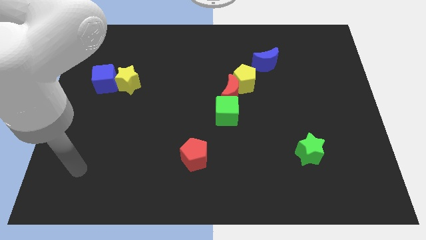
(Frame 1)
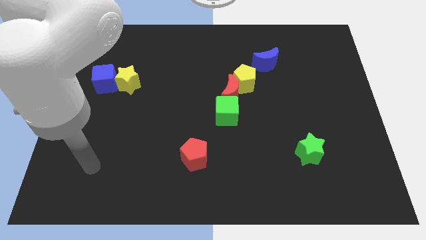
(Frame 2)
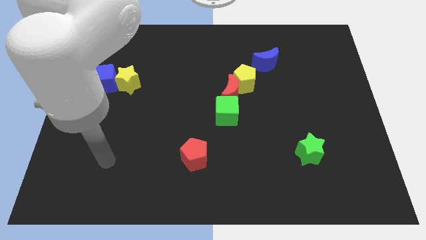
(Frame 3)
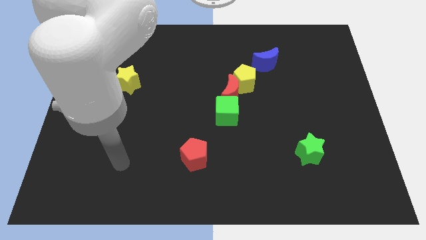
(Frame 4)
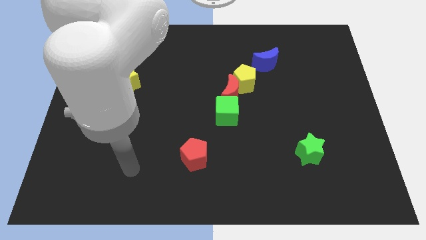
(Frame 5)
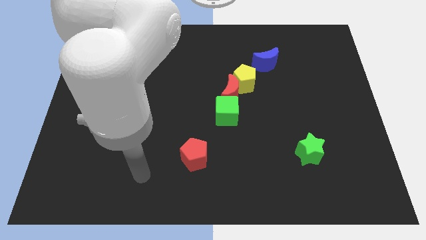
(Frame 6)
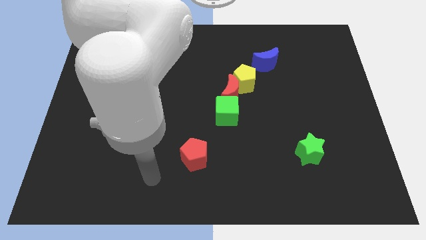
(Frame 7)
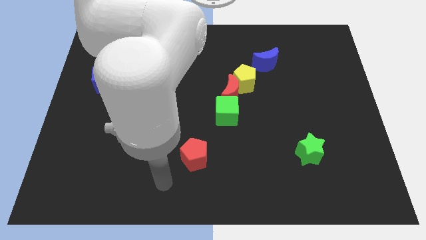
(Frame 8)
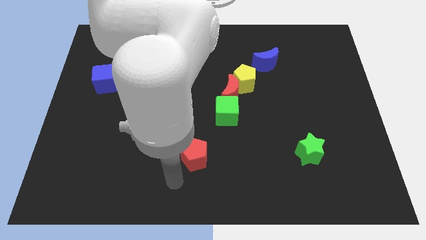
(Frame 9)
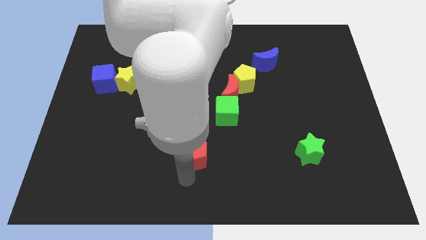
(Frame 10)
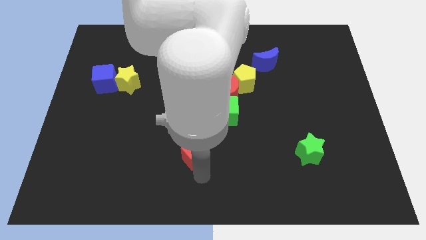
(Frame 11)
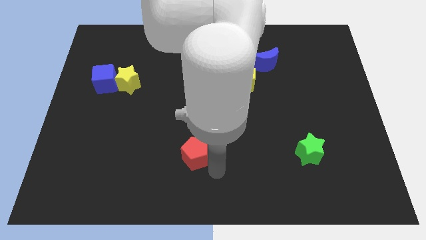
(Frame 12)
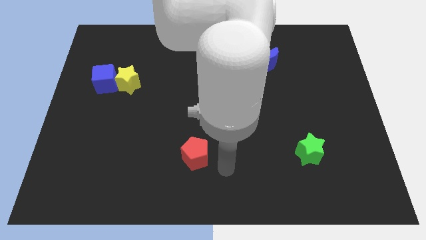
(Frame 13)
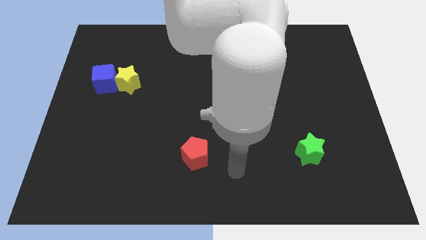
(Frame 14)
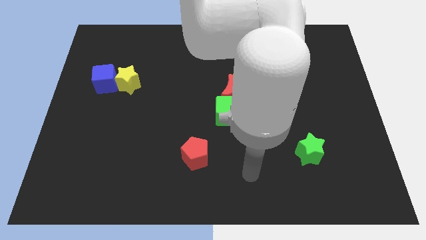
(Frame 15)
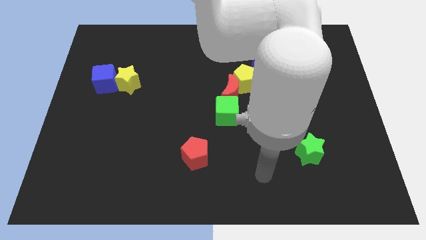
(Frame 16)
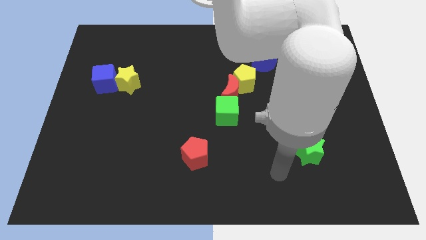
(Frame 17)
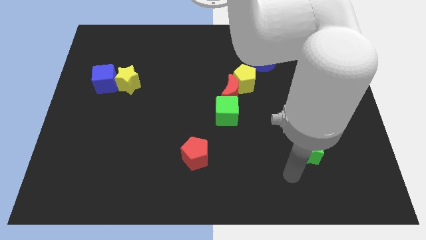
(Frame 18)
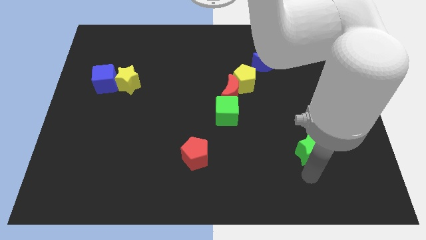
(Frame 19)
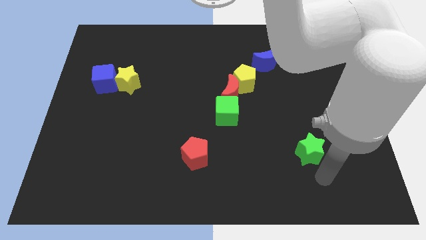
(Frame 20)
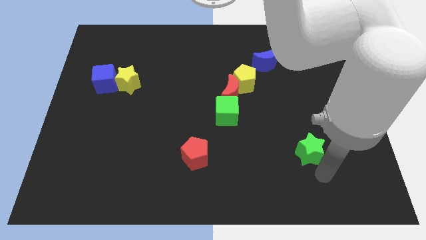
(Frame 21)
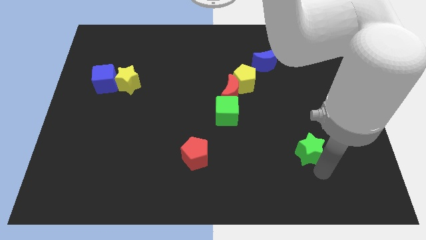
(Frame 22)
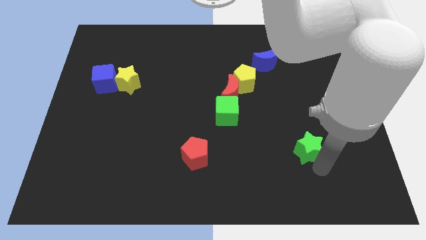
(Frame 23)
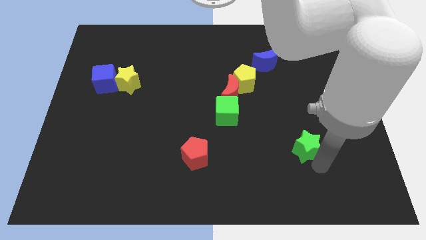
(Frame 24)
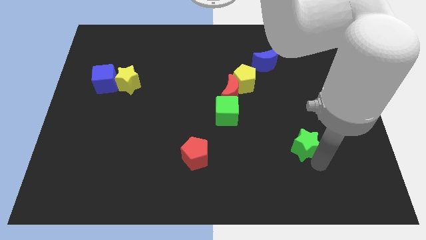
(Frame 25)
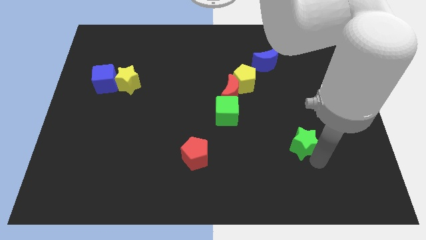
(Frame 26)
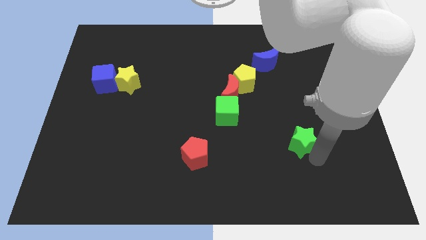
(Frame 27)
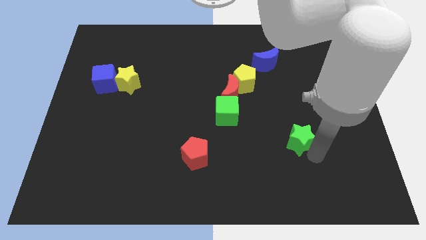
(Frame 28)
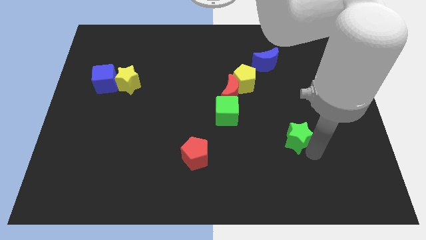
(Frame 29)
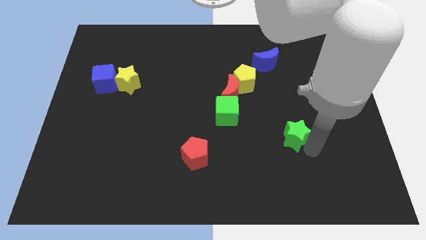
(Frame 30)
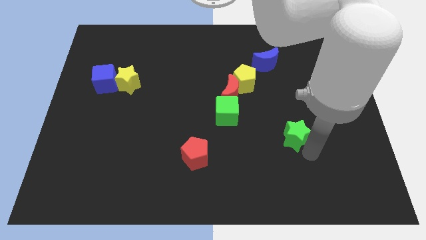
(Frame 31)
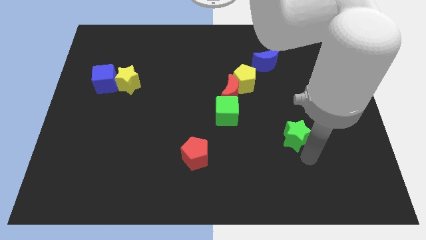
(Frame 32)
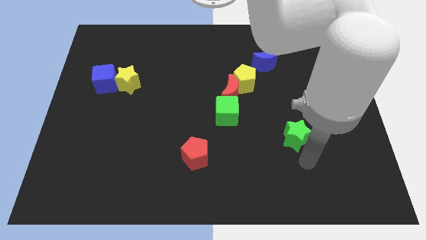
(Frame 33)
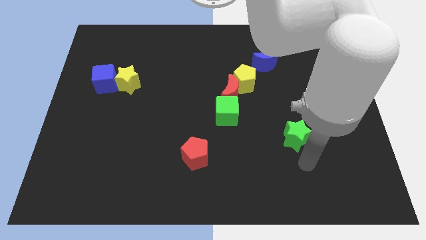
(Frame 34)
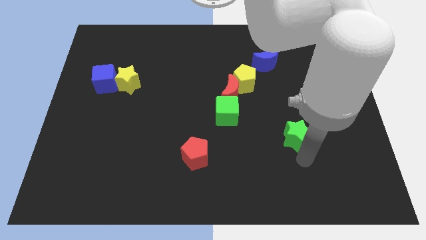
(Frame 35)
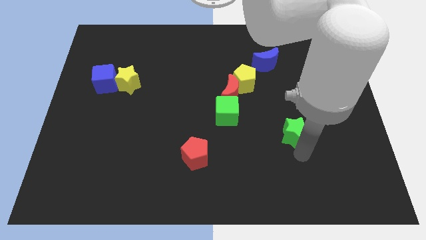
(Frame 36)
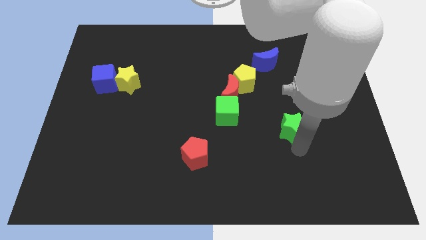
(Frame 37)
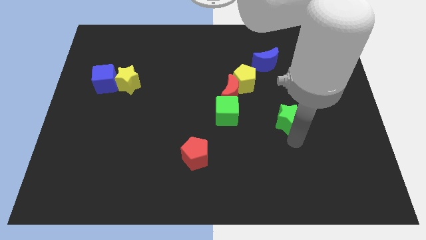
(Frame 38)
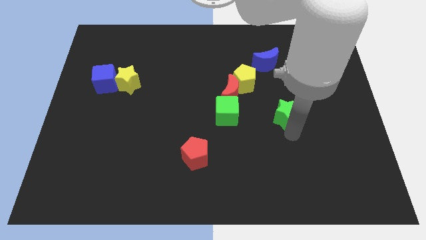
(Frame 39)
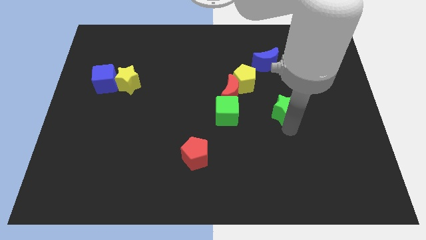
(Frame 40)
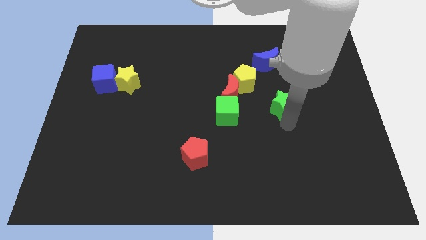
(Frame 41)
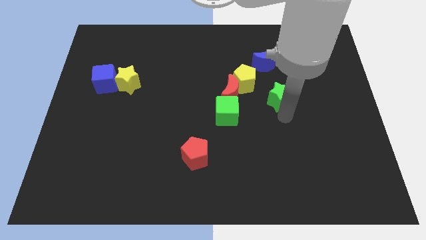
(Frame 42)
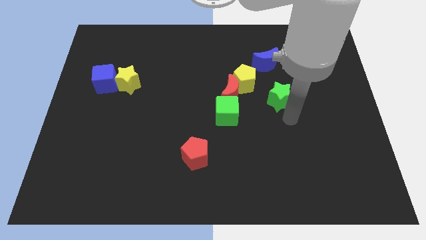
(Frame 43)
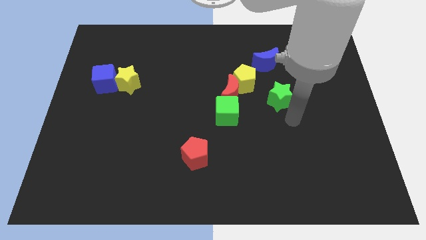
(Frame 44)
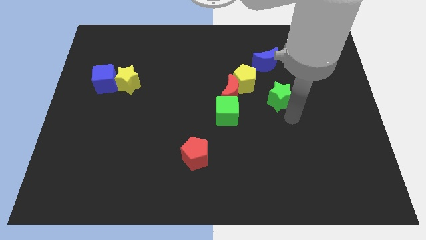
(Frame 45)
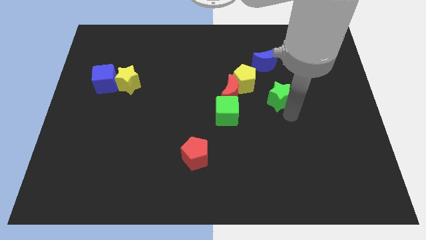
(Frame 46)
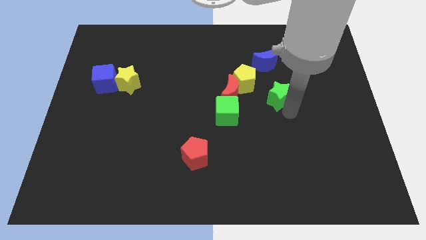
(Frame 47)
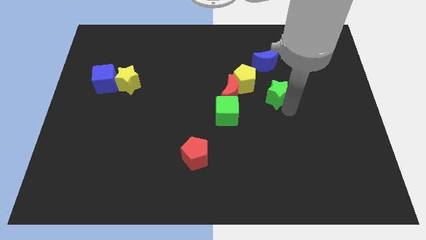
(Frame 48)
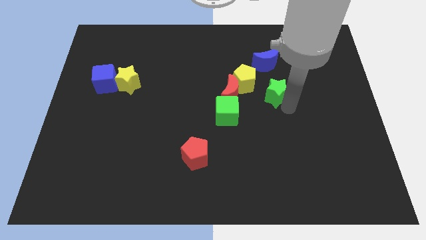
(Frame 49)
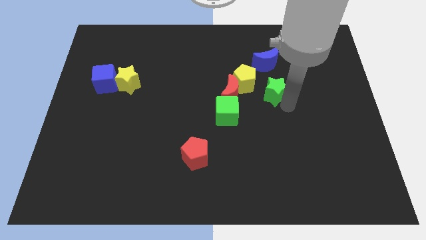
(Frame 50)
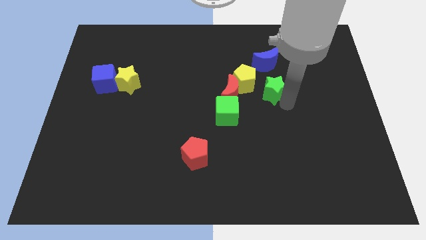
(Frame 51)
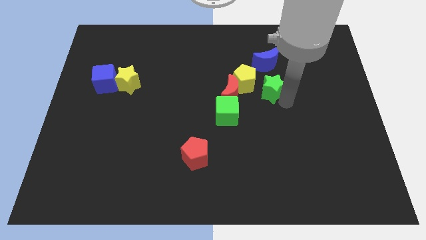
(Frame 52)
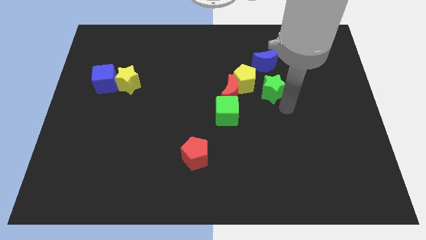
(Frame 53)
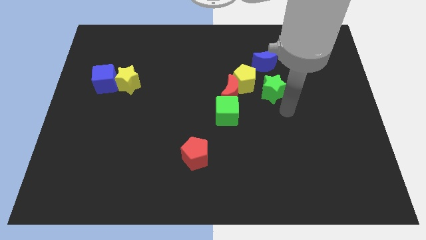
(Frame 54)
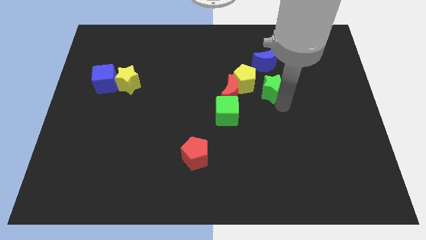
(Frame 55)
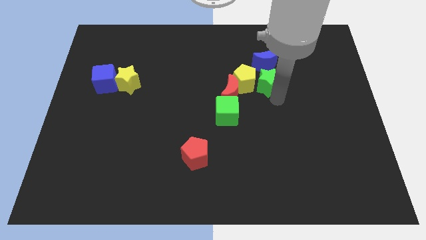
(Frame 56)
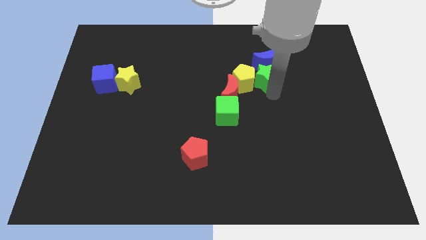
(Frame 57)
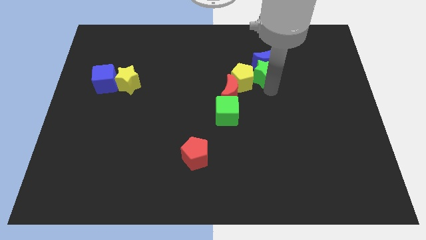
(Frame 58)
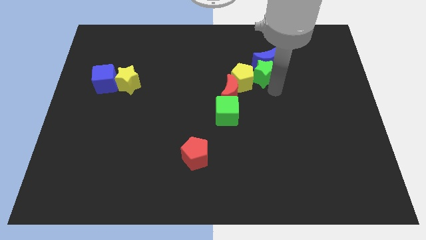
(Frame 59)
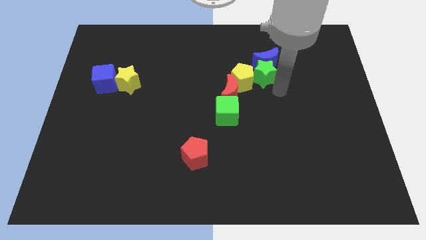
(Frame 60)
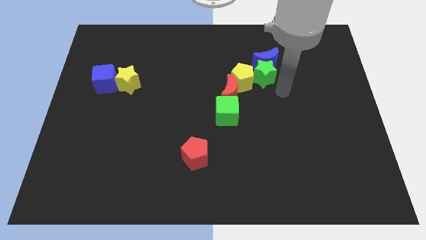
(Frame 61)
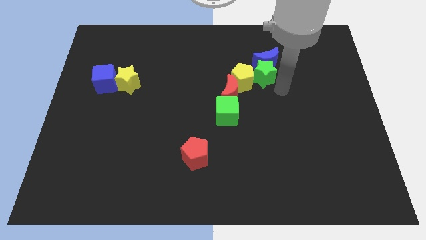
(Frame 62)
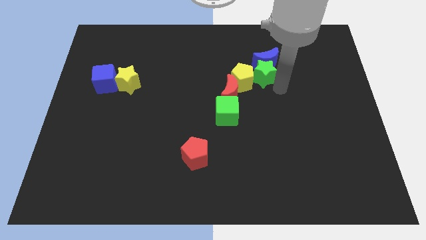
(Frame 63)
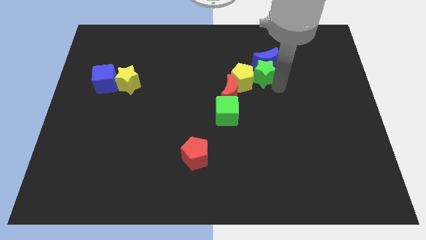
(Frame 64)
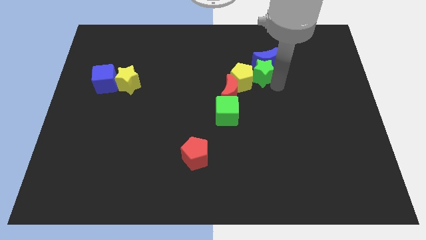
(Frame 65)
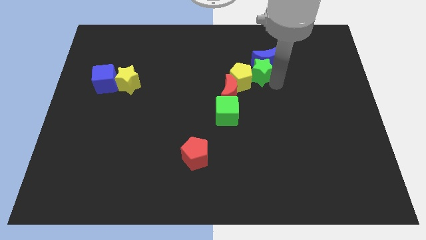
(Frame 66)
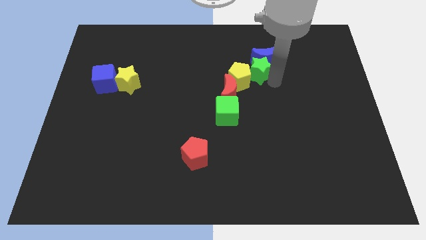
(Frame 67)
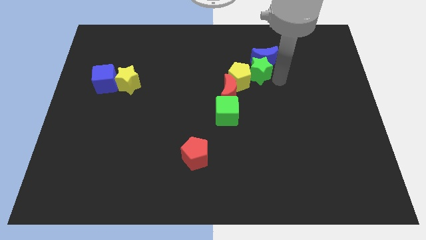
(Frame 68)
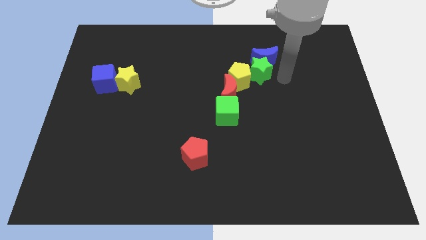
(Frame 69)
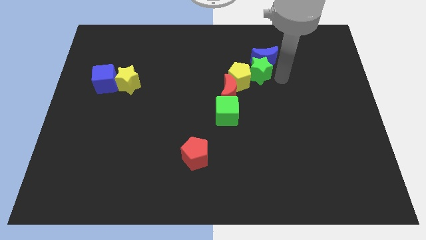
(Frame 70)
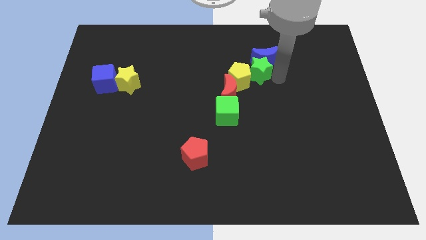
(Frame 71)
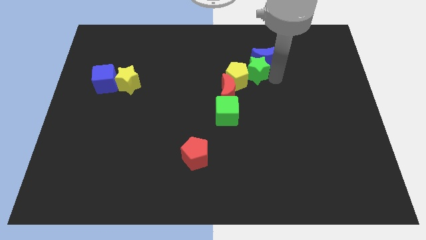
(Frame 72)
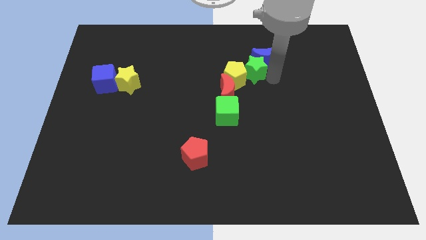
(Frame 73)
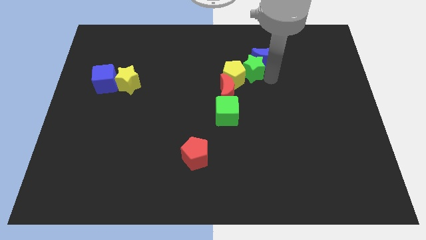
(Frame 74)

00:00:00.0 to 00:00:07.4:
move the green star upwards and to the left

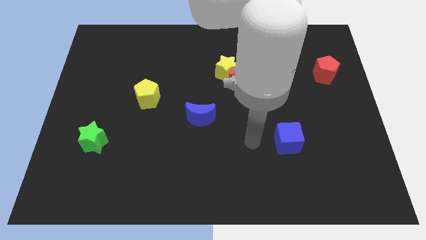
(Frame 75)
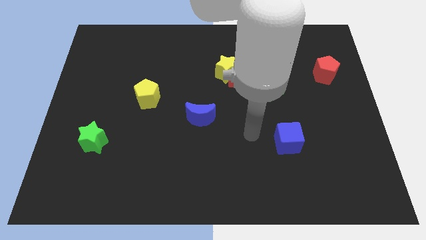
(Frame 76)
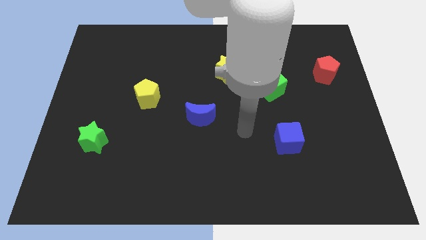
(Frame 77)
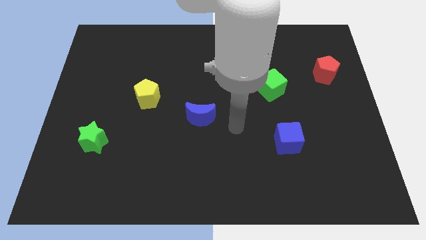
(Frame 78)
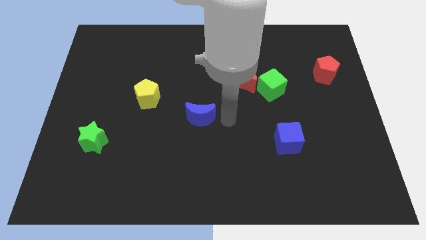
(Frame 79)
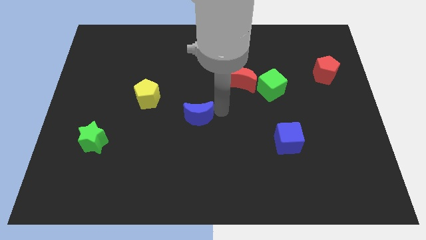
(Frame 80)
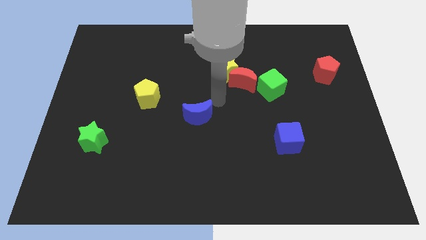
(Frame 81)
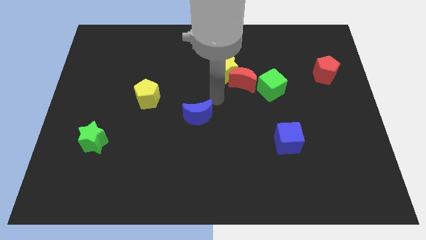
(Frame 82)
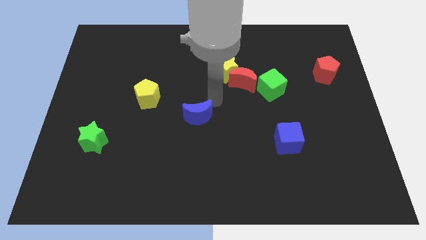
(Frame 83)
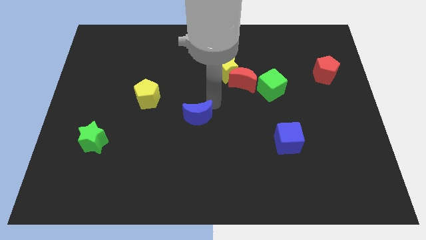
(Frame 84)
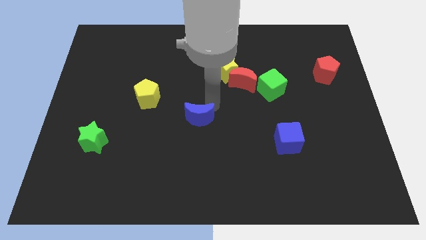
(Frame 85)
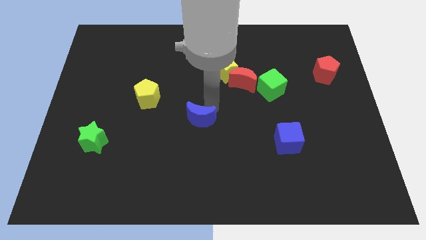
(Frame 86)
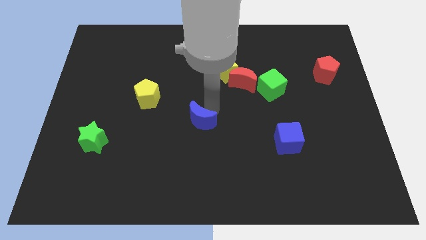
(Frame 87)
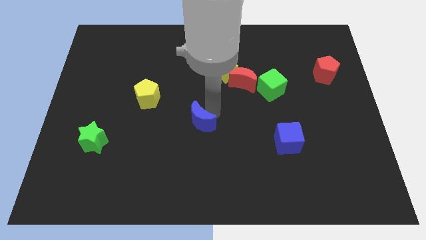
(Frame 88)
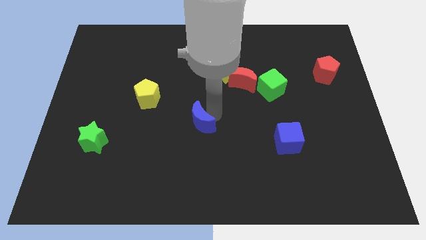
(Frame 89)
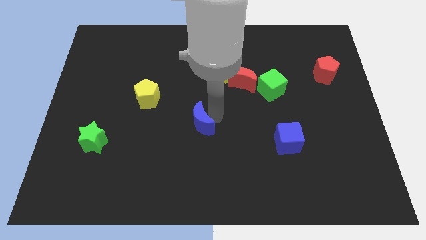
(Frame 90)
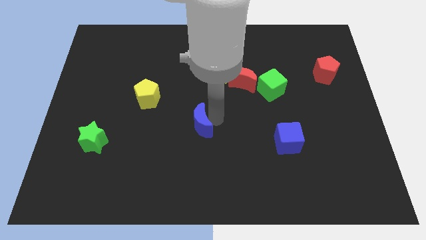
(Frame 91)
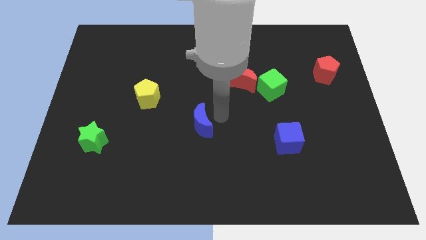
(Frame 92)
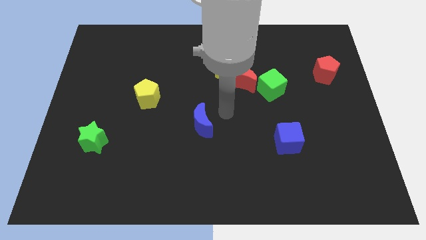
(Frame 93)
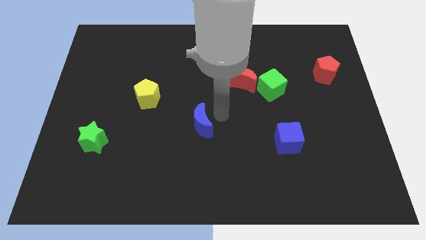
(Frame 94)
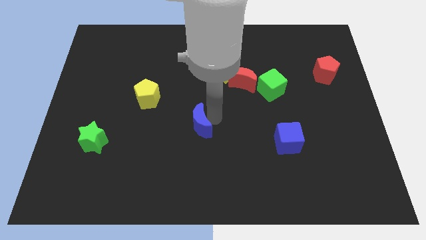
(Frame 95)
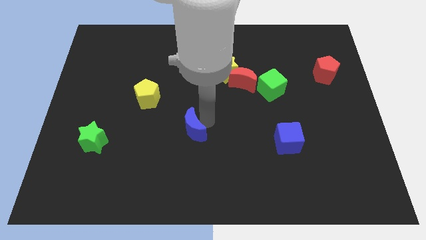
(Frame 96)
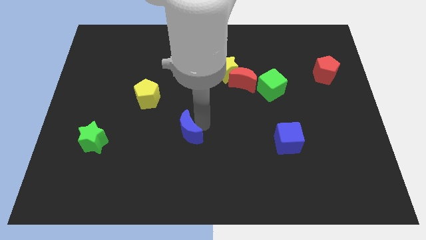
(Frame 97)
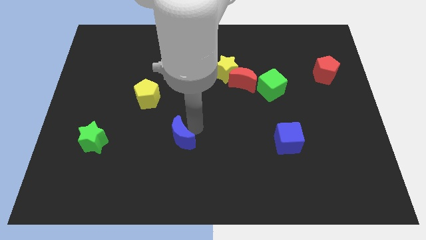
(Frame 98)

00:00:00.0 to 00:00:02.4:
slide the blue moon a little bit diagonally downwards and to the left
